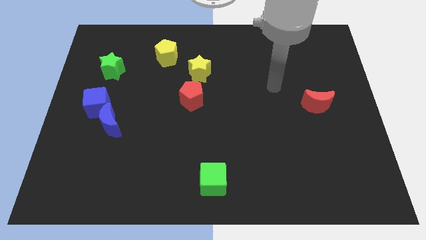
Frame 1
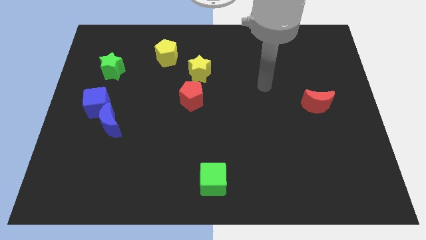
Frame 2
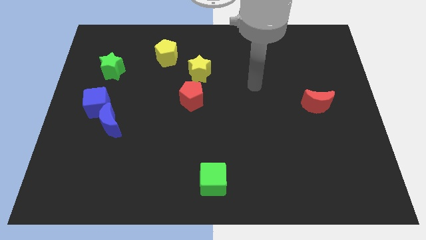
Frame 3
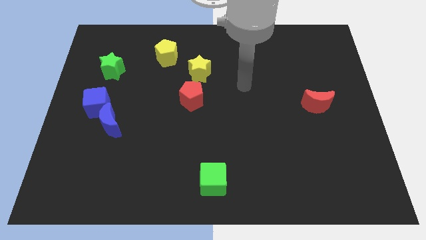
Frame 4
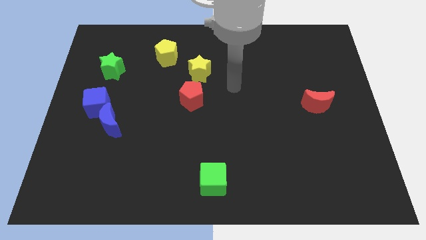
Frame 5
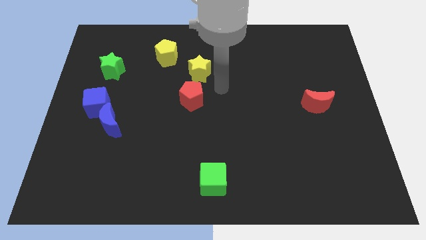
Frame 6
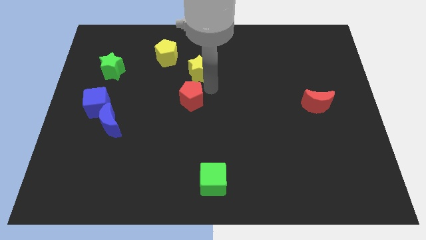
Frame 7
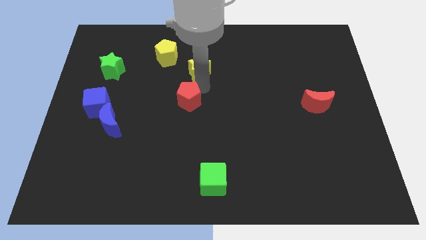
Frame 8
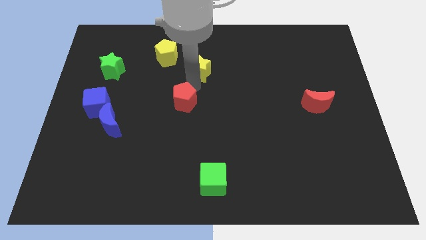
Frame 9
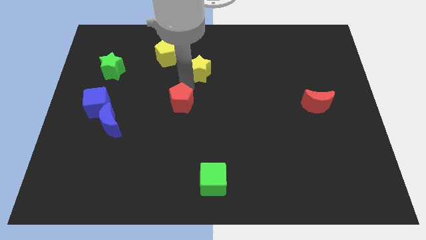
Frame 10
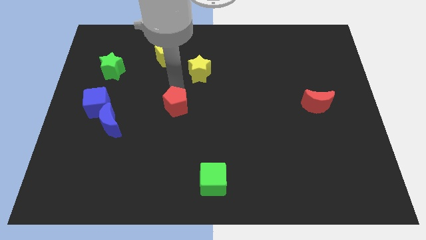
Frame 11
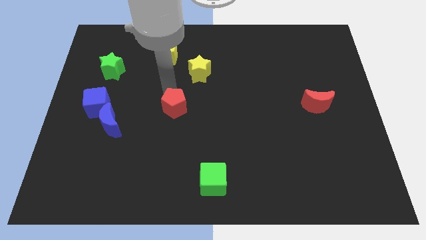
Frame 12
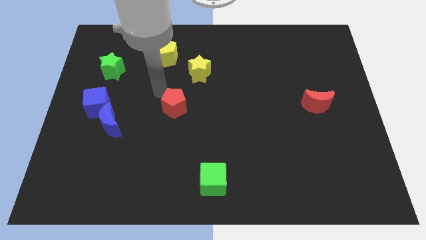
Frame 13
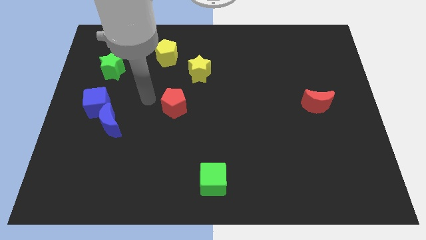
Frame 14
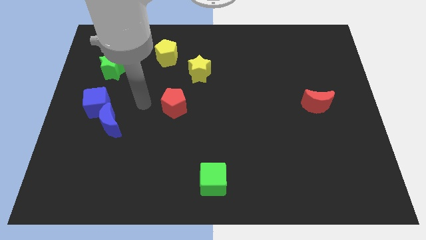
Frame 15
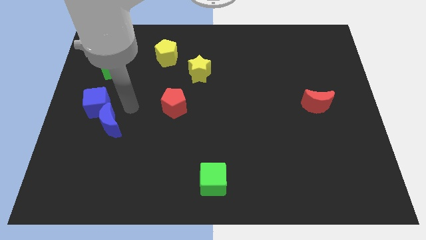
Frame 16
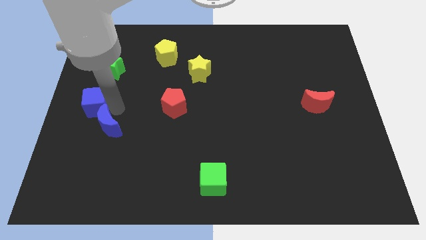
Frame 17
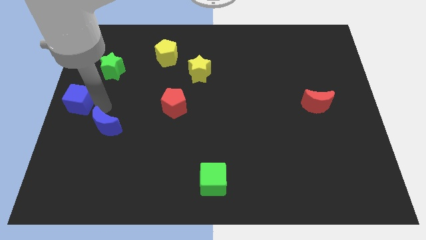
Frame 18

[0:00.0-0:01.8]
separate the blue moon from the blue cube

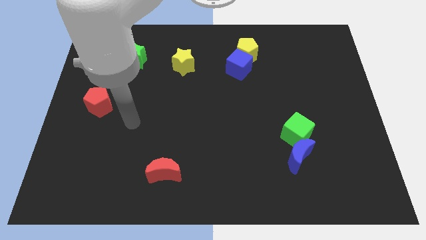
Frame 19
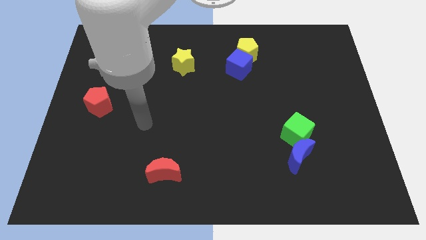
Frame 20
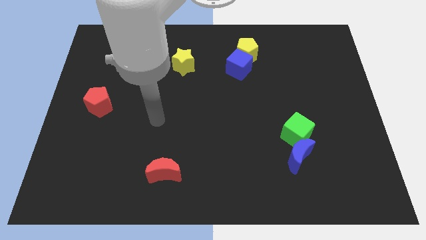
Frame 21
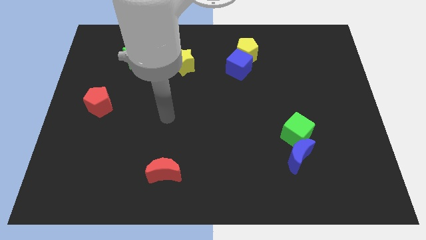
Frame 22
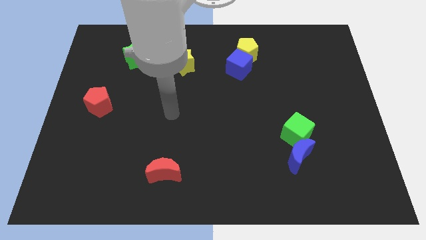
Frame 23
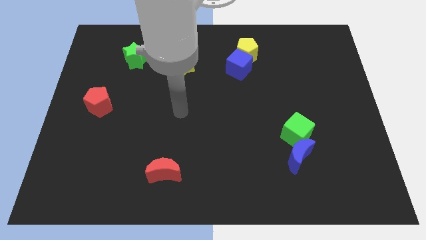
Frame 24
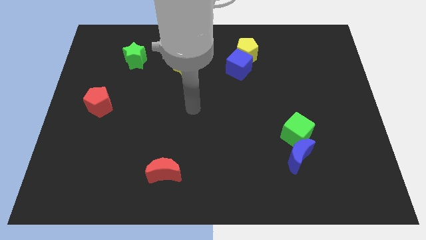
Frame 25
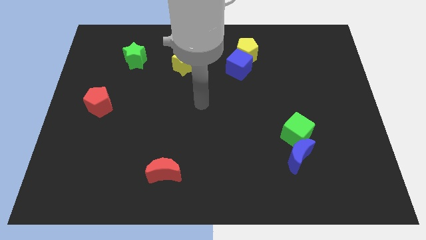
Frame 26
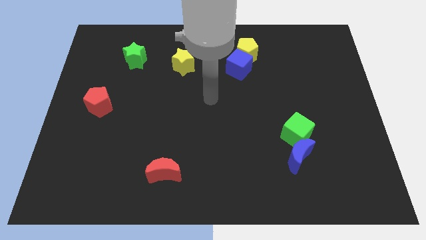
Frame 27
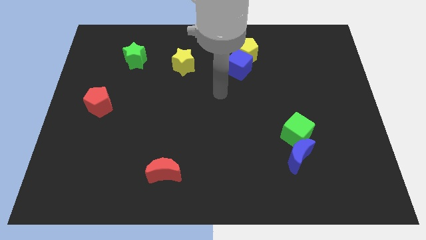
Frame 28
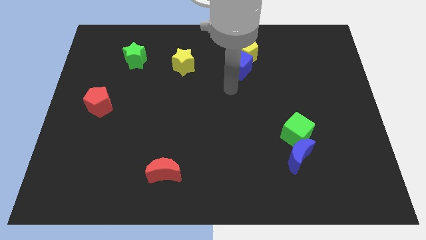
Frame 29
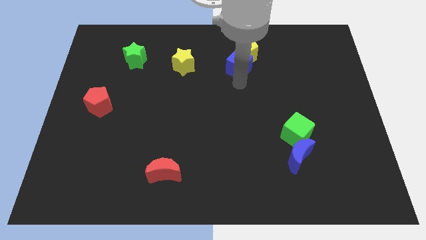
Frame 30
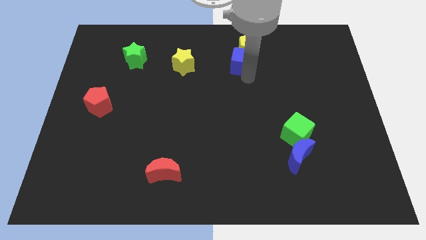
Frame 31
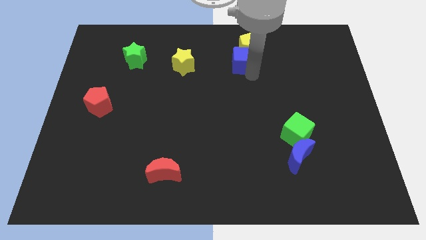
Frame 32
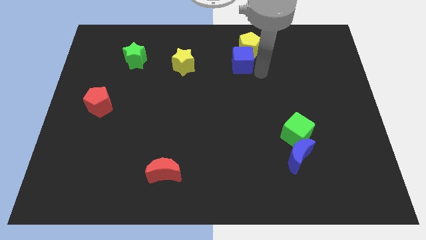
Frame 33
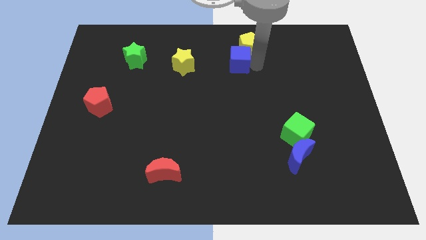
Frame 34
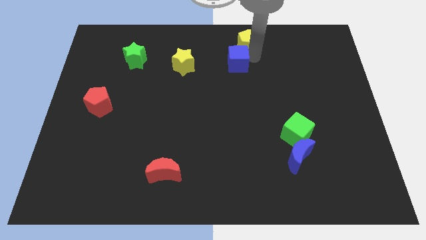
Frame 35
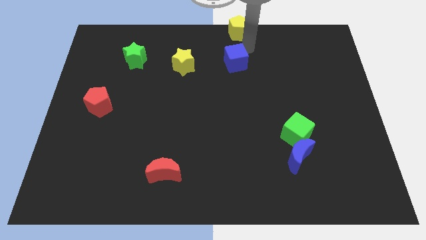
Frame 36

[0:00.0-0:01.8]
separate the blue cube from the yellow pentagon

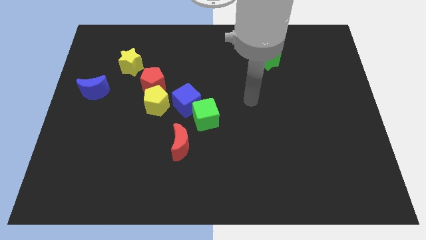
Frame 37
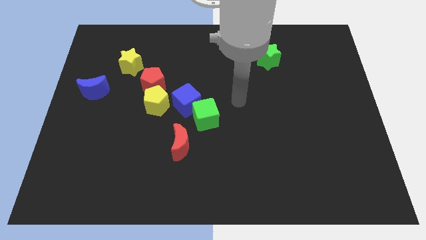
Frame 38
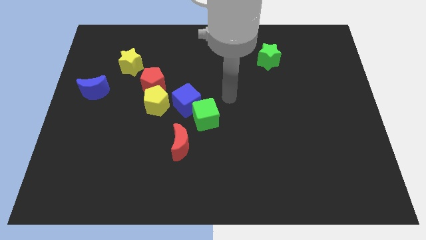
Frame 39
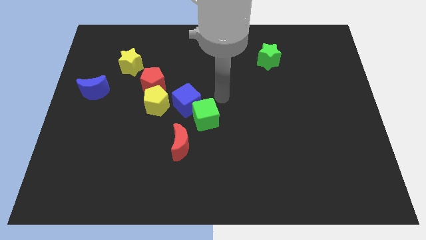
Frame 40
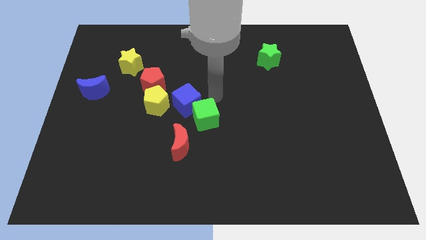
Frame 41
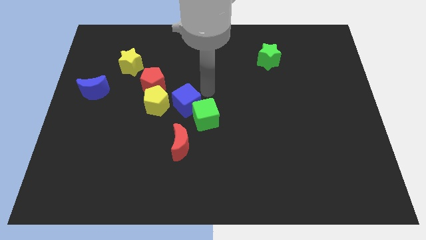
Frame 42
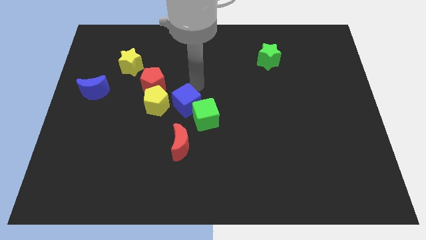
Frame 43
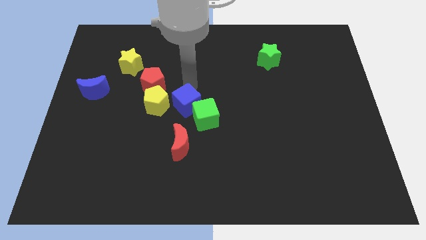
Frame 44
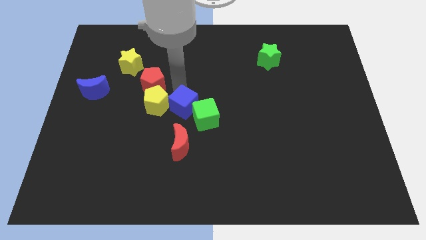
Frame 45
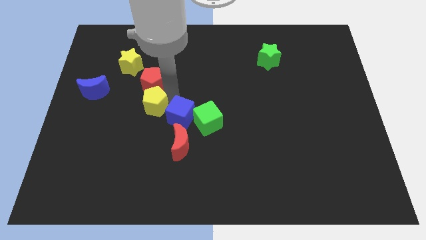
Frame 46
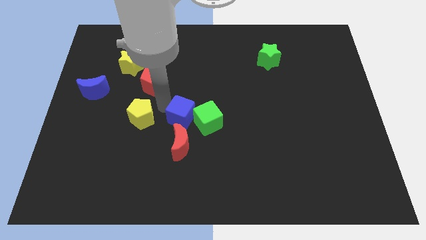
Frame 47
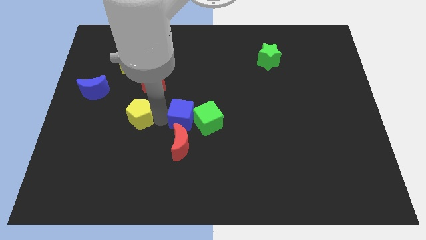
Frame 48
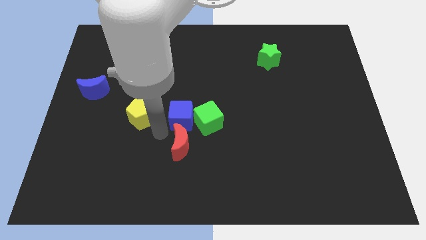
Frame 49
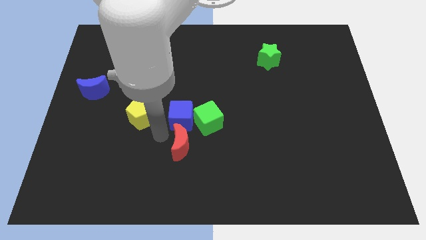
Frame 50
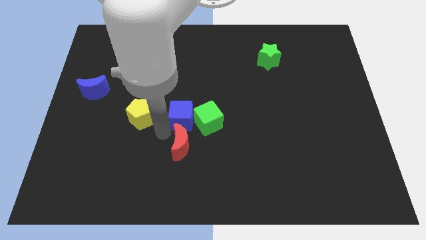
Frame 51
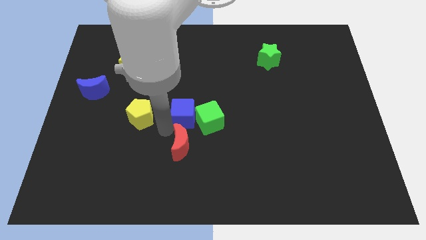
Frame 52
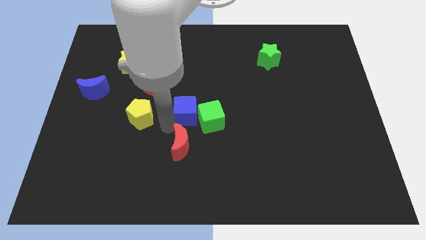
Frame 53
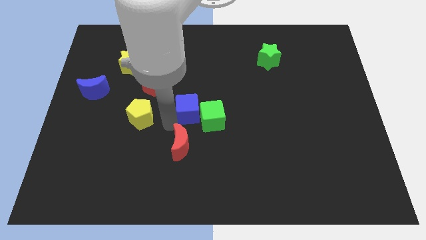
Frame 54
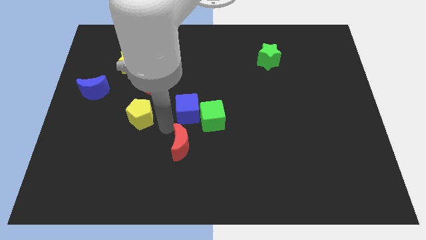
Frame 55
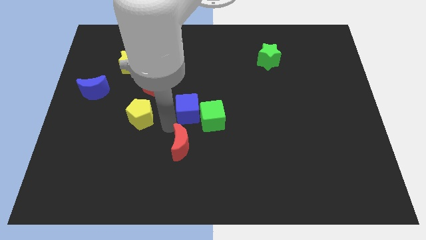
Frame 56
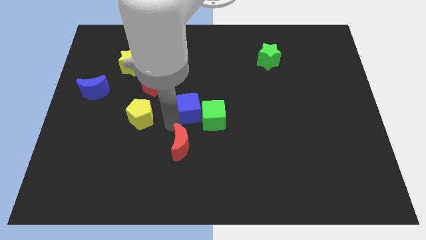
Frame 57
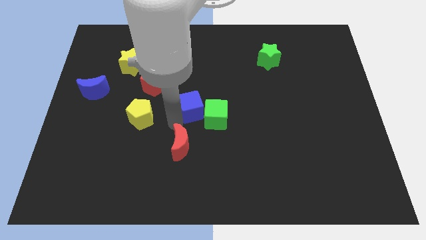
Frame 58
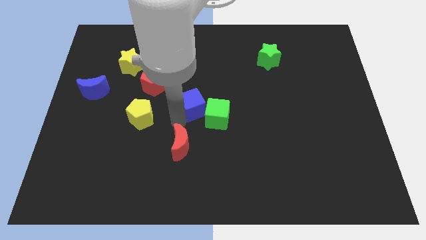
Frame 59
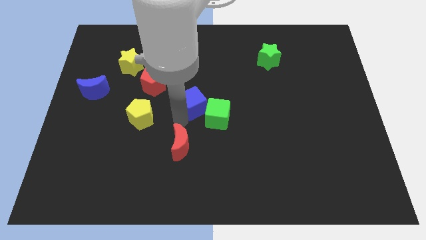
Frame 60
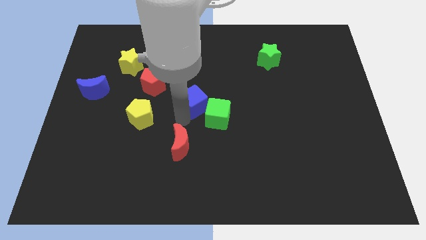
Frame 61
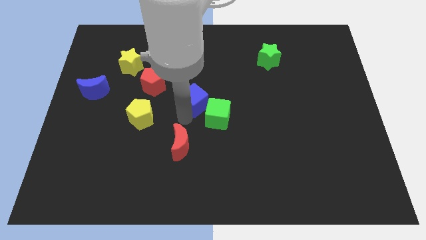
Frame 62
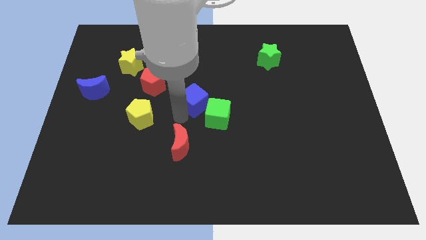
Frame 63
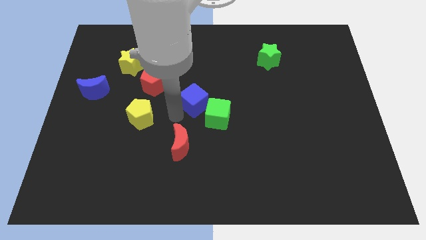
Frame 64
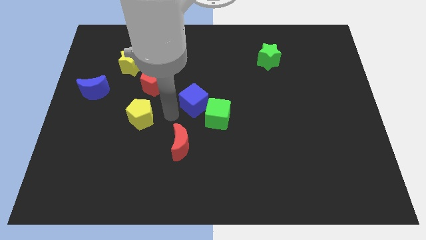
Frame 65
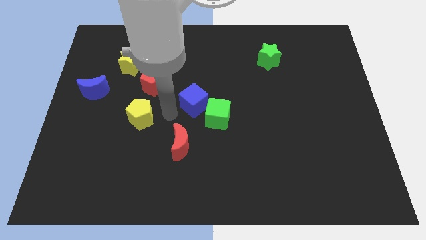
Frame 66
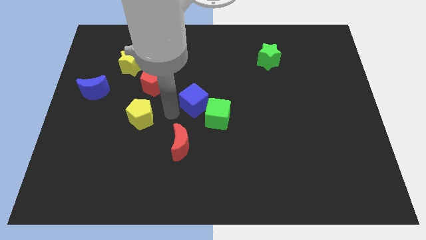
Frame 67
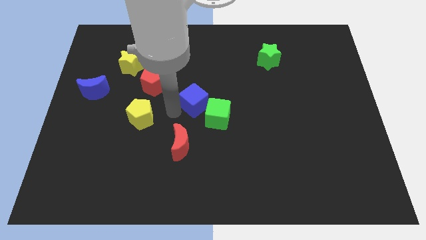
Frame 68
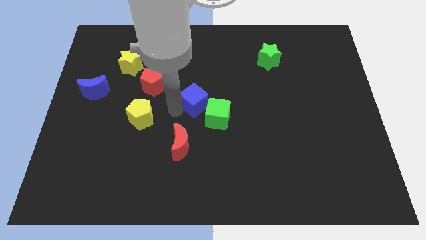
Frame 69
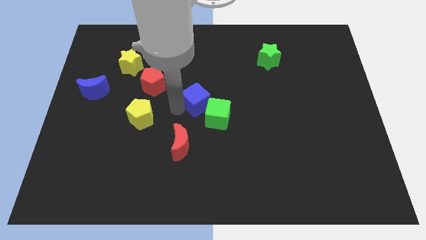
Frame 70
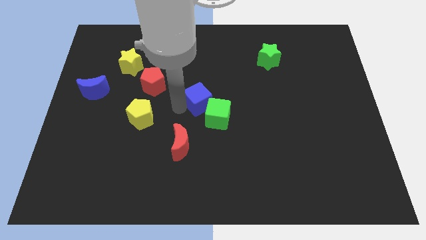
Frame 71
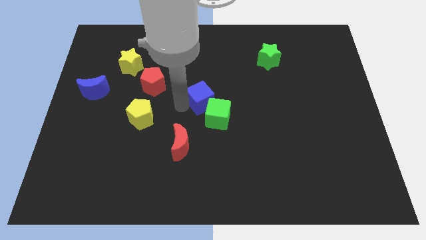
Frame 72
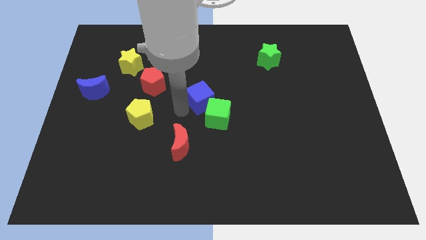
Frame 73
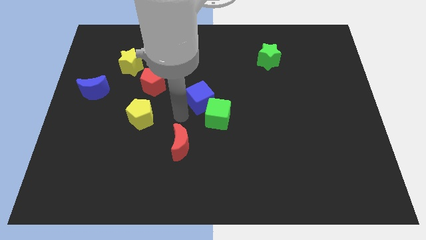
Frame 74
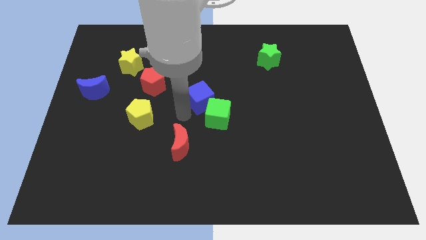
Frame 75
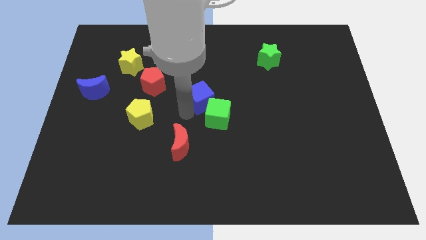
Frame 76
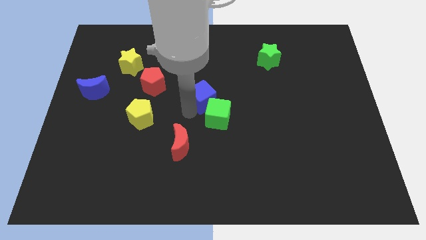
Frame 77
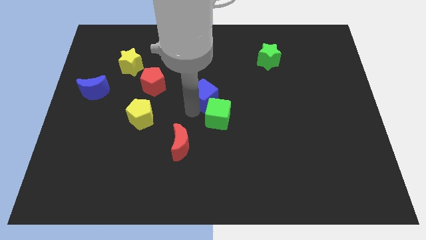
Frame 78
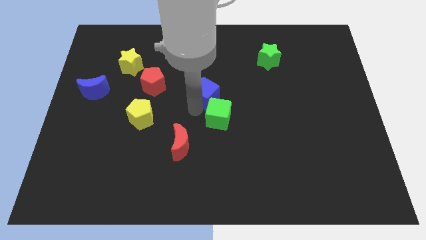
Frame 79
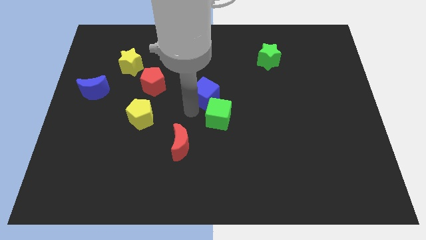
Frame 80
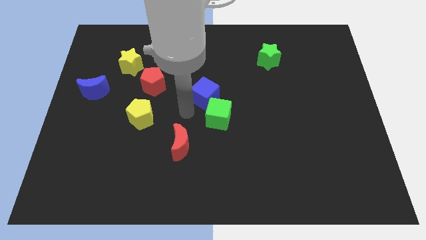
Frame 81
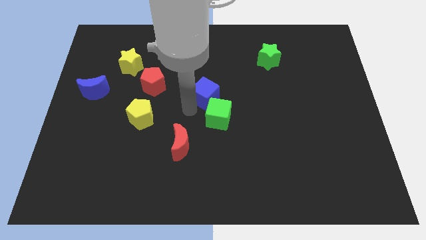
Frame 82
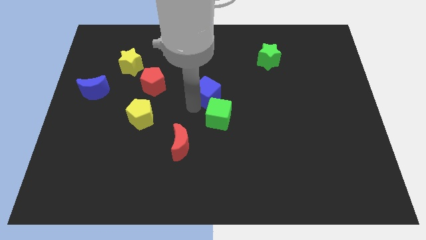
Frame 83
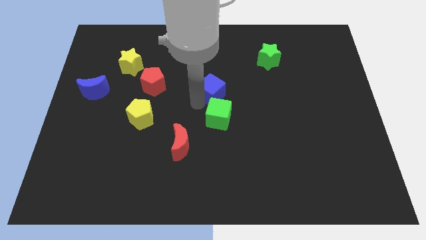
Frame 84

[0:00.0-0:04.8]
separate the blue cube from the green cube and yellow pentagon

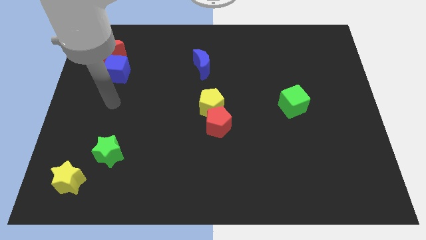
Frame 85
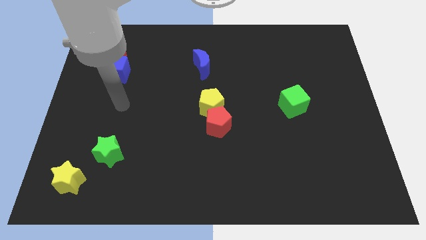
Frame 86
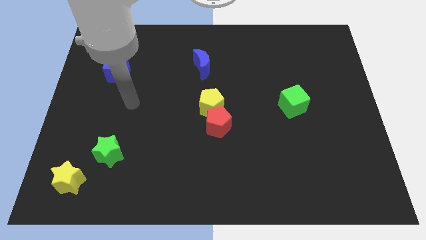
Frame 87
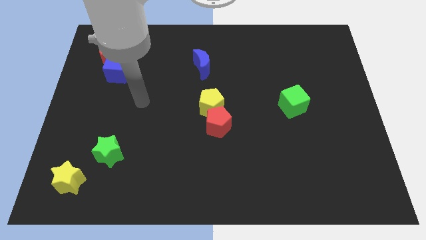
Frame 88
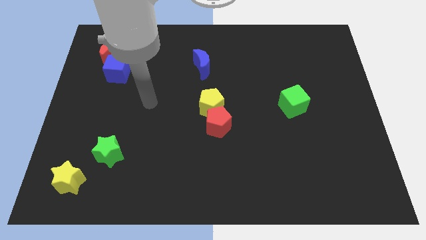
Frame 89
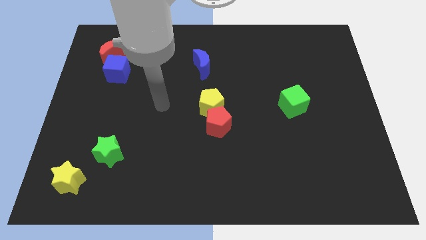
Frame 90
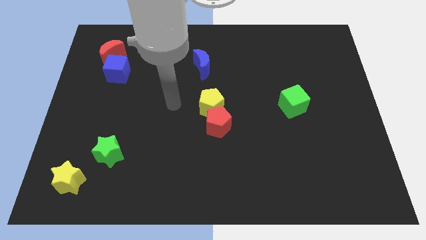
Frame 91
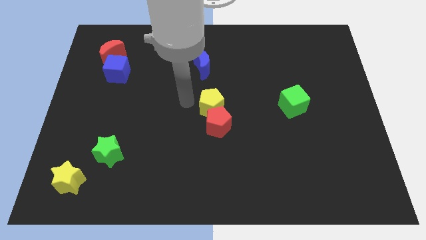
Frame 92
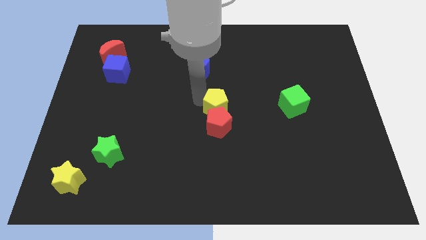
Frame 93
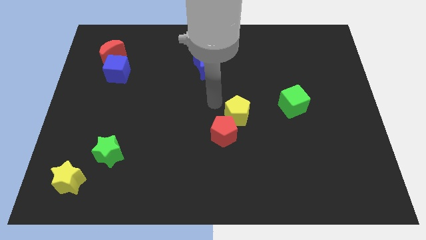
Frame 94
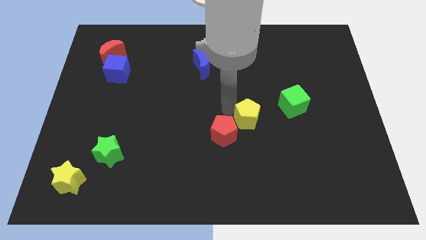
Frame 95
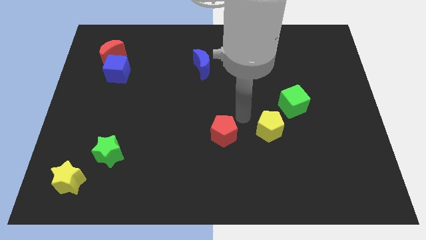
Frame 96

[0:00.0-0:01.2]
pull the red pentagon apart from the yellow pentagon
